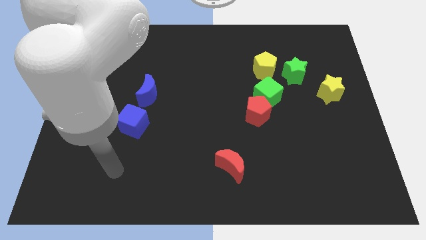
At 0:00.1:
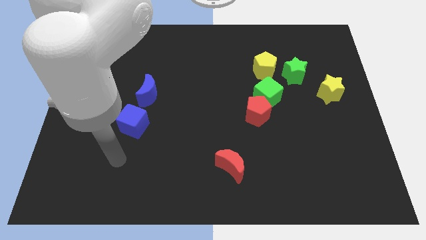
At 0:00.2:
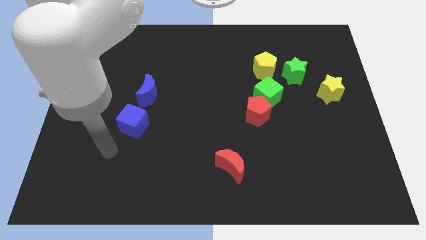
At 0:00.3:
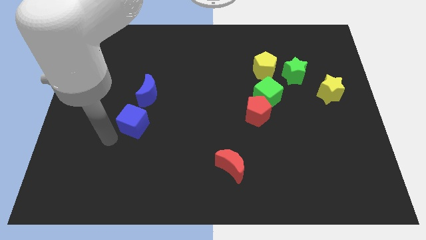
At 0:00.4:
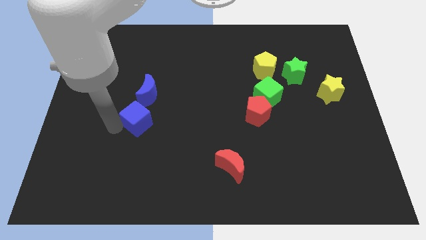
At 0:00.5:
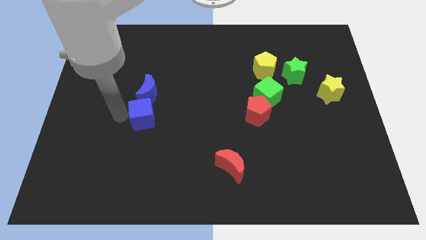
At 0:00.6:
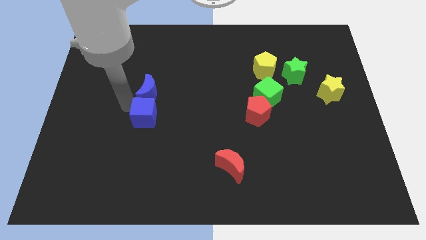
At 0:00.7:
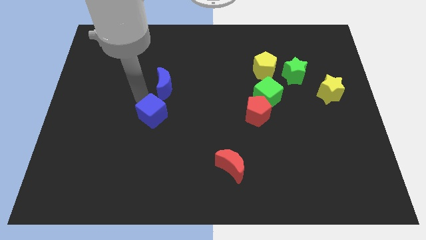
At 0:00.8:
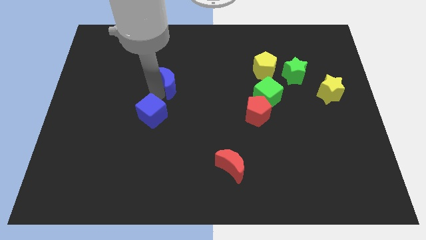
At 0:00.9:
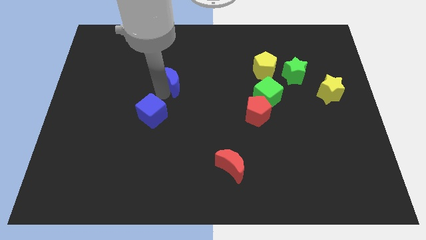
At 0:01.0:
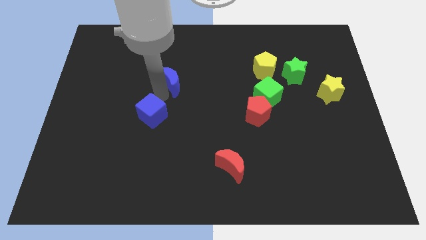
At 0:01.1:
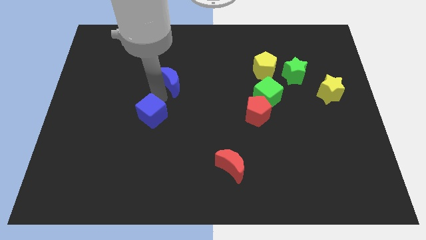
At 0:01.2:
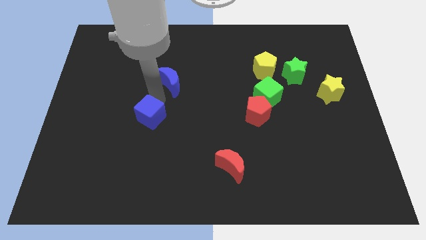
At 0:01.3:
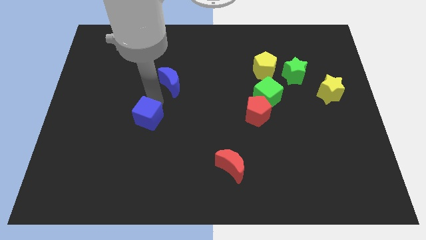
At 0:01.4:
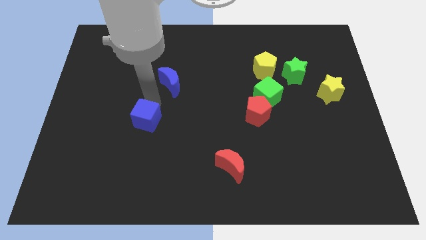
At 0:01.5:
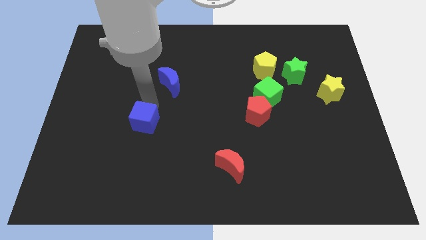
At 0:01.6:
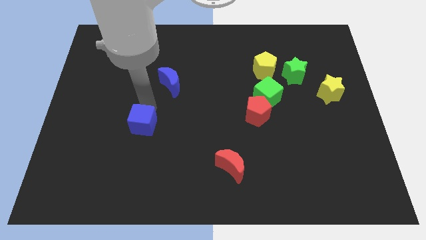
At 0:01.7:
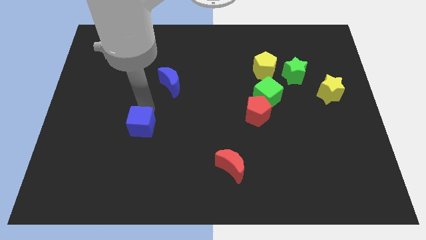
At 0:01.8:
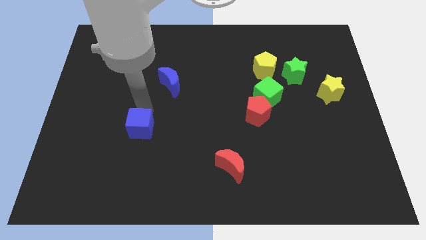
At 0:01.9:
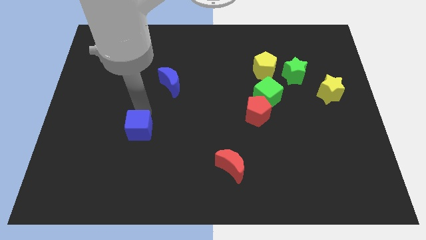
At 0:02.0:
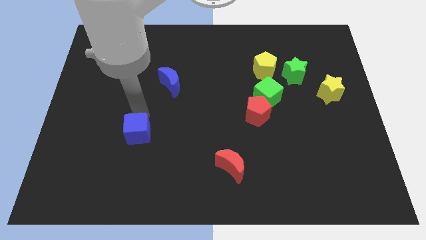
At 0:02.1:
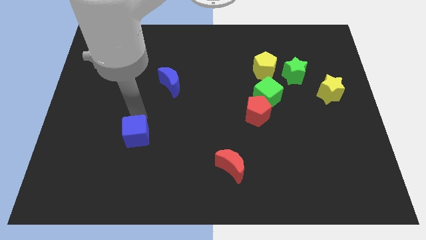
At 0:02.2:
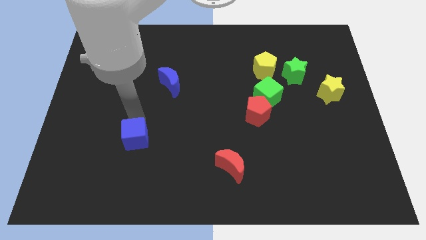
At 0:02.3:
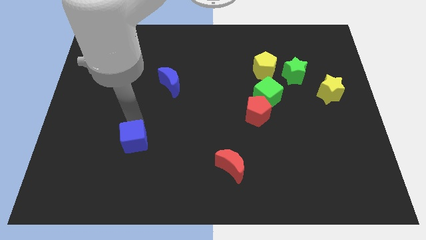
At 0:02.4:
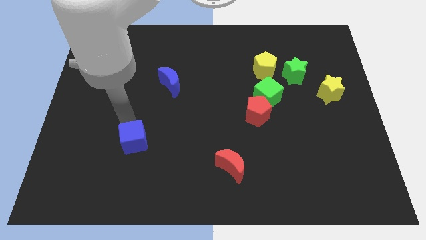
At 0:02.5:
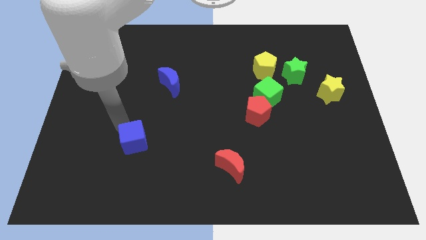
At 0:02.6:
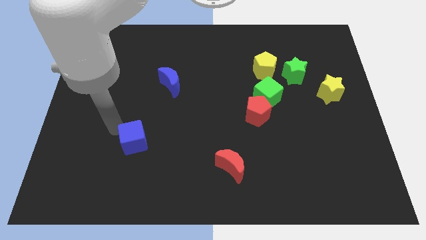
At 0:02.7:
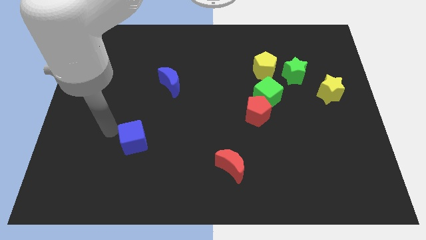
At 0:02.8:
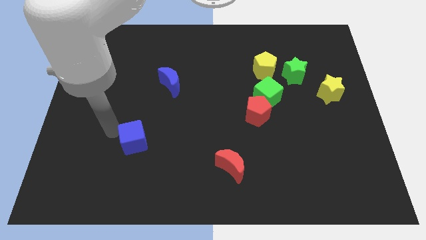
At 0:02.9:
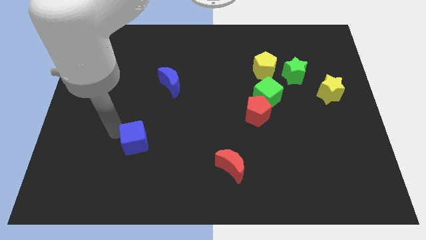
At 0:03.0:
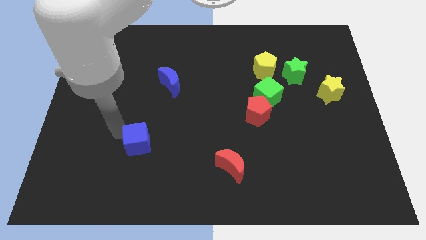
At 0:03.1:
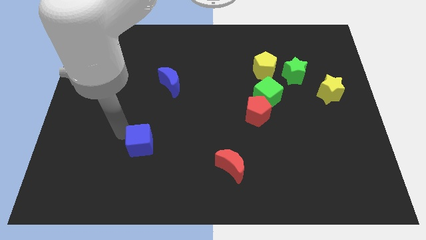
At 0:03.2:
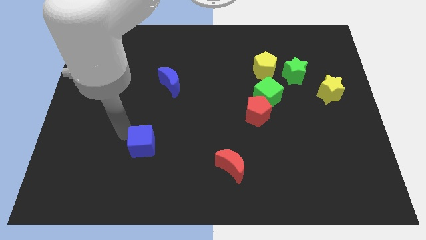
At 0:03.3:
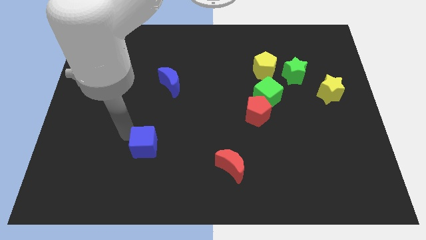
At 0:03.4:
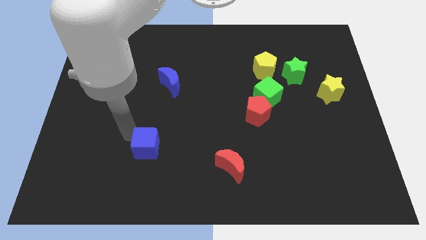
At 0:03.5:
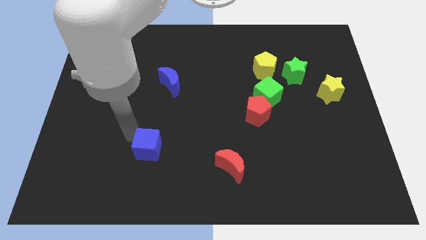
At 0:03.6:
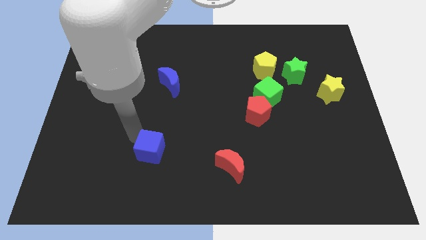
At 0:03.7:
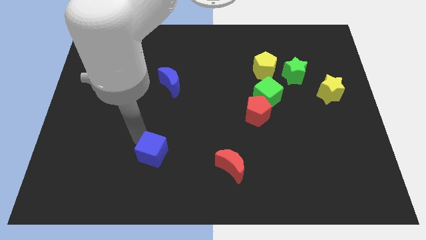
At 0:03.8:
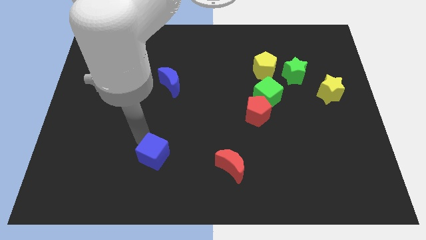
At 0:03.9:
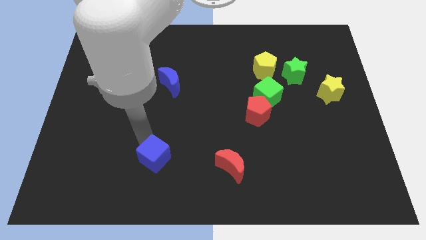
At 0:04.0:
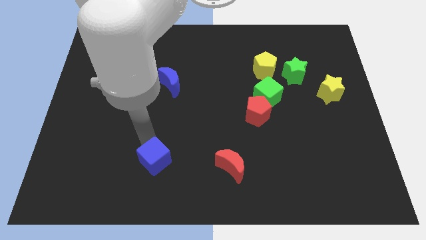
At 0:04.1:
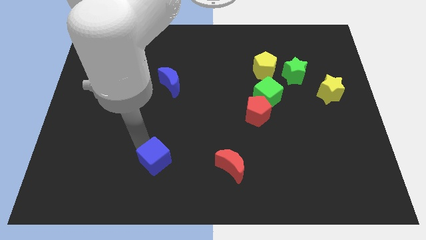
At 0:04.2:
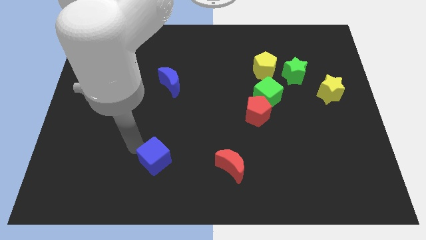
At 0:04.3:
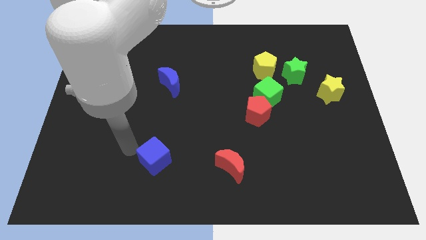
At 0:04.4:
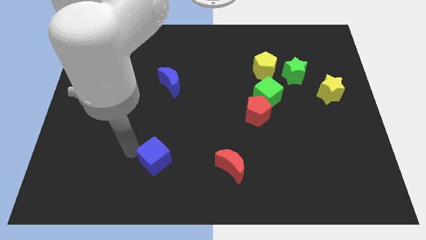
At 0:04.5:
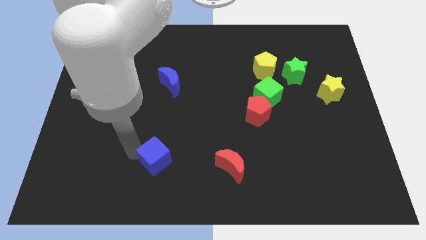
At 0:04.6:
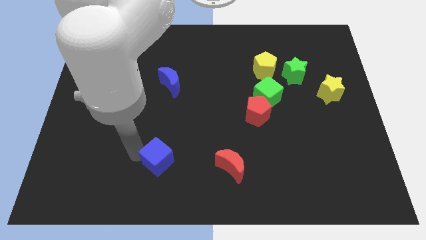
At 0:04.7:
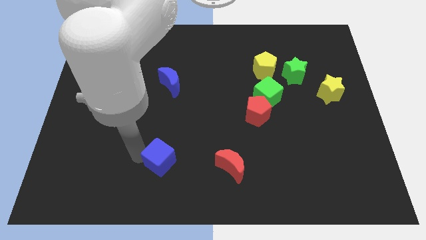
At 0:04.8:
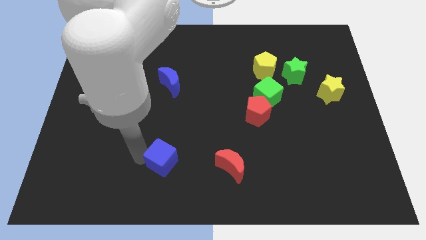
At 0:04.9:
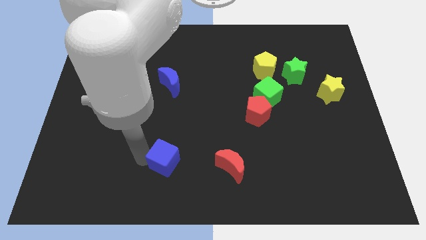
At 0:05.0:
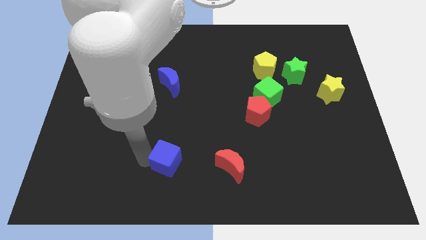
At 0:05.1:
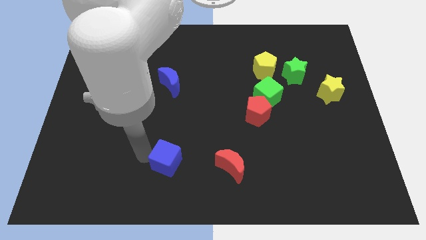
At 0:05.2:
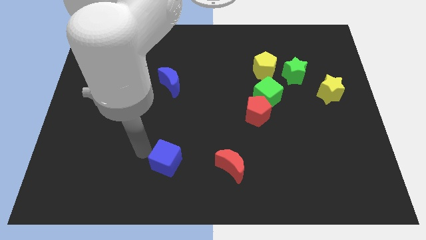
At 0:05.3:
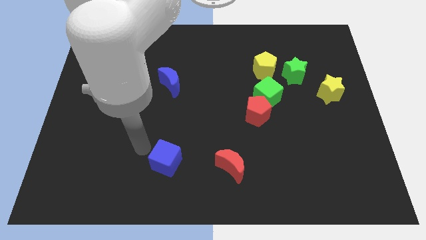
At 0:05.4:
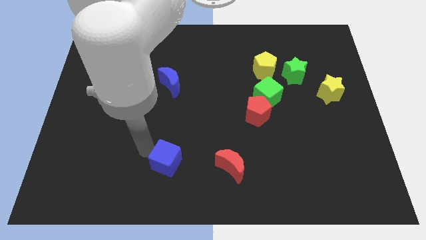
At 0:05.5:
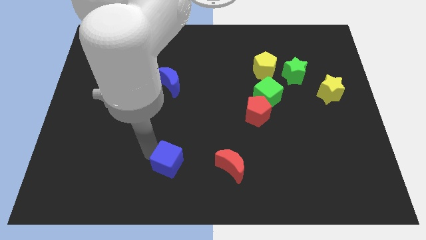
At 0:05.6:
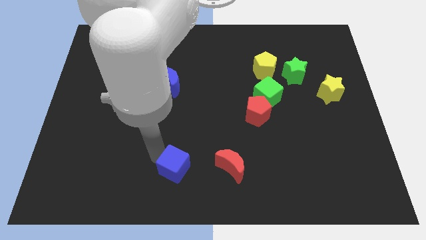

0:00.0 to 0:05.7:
push the blue cube to the bottom side

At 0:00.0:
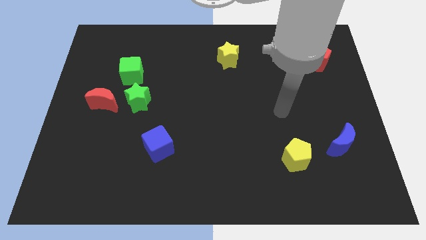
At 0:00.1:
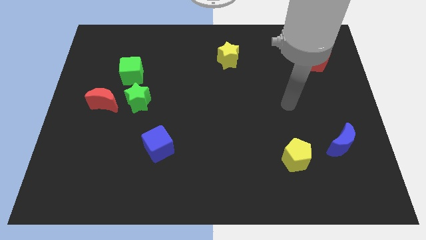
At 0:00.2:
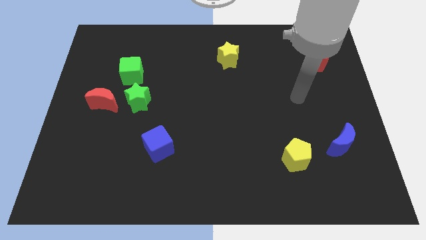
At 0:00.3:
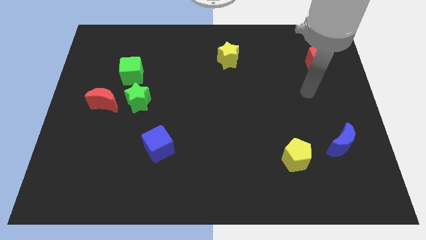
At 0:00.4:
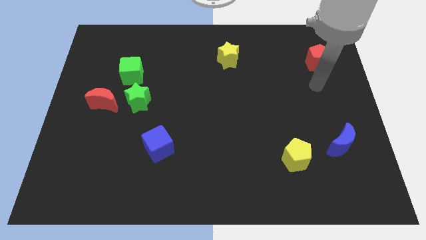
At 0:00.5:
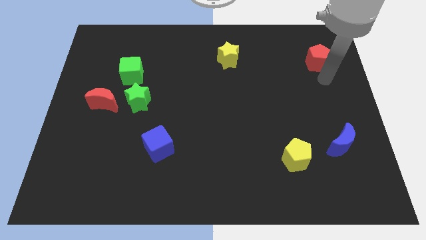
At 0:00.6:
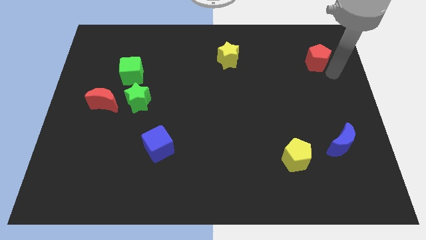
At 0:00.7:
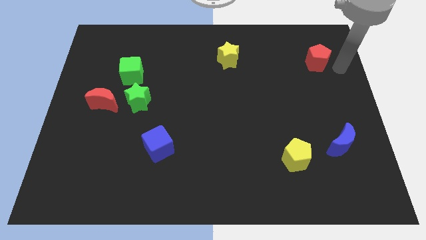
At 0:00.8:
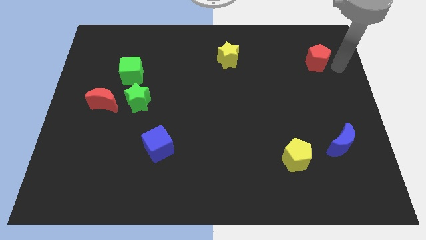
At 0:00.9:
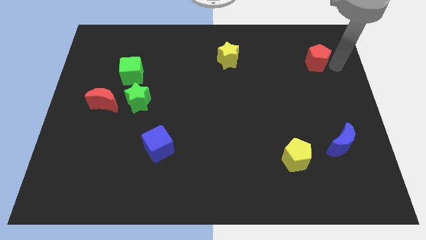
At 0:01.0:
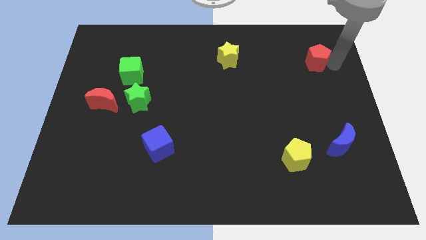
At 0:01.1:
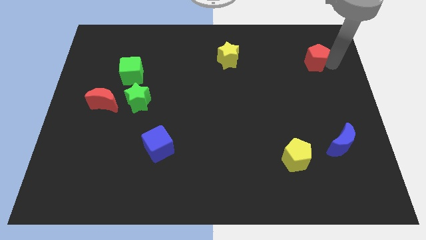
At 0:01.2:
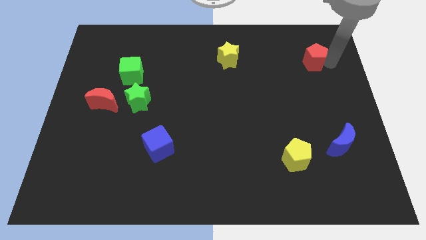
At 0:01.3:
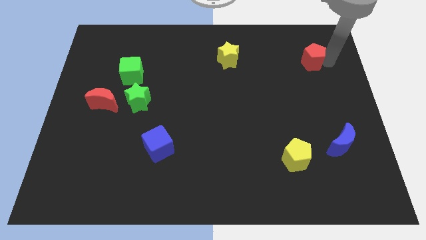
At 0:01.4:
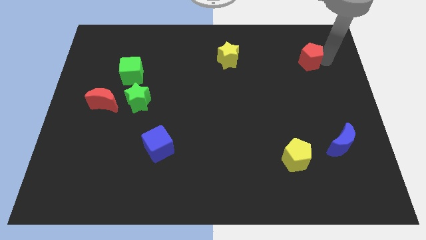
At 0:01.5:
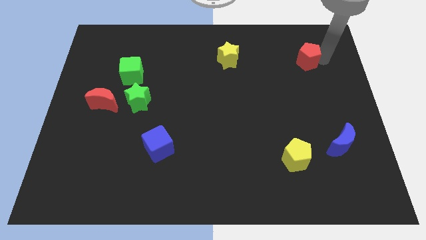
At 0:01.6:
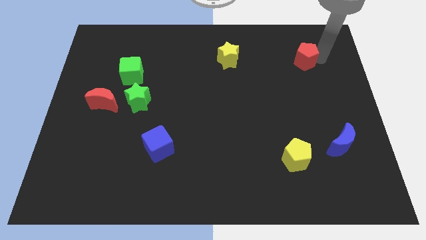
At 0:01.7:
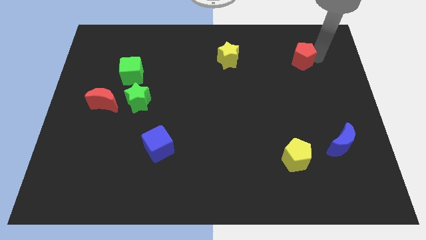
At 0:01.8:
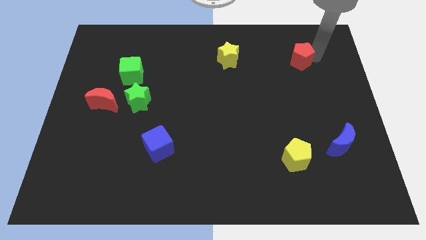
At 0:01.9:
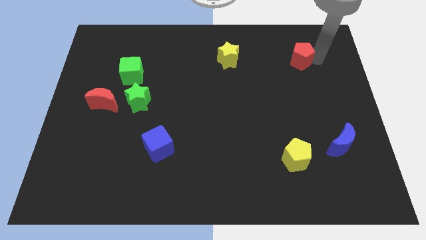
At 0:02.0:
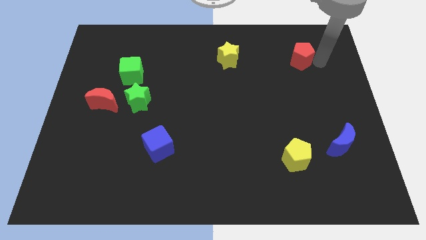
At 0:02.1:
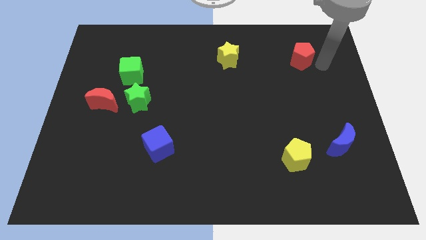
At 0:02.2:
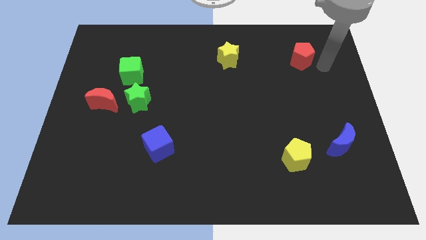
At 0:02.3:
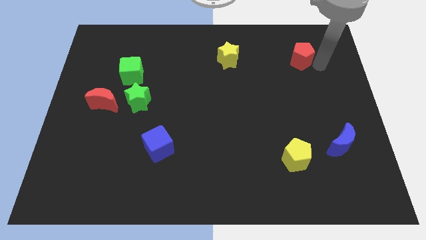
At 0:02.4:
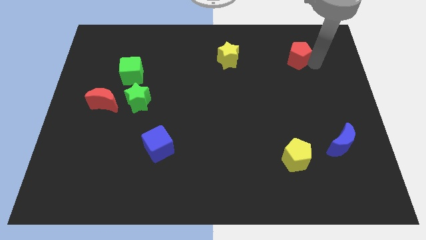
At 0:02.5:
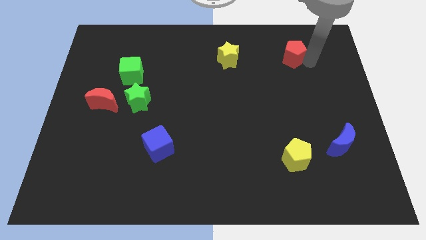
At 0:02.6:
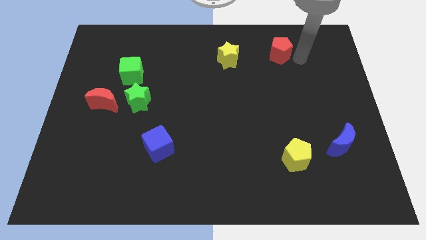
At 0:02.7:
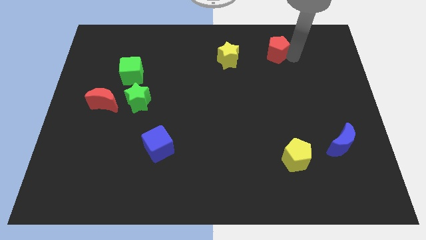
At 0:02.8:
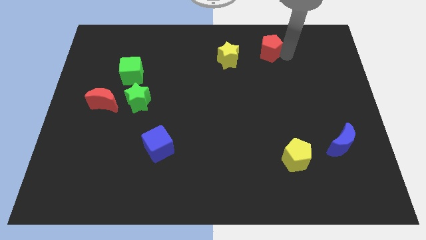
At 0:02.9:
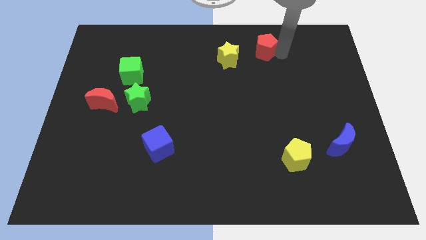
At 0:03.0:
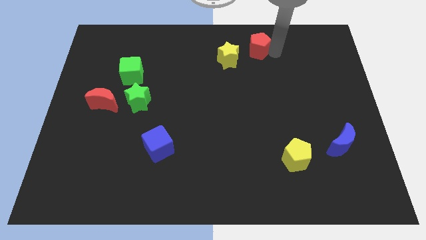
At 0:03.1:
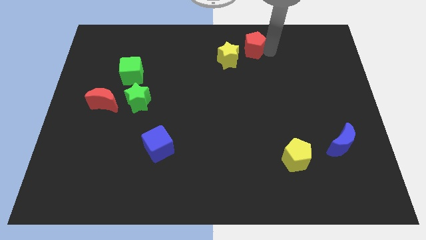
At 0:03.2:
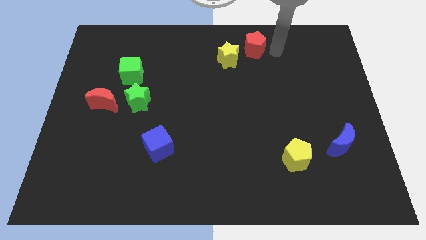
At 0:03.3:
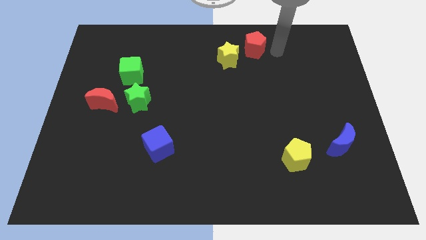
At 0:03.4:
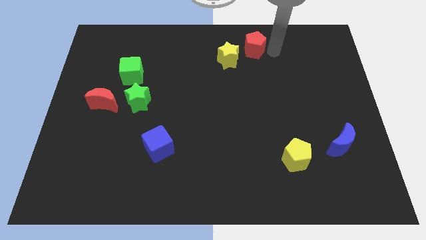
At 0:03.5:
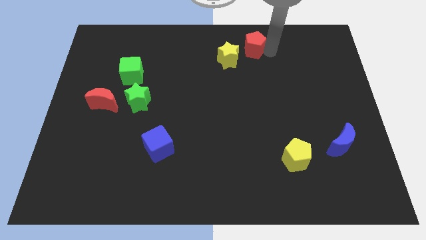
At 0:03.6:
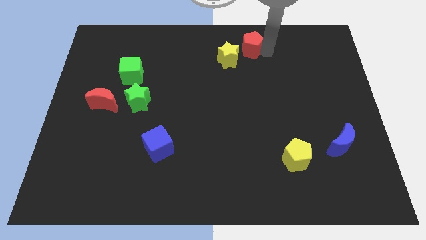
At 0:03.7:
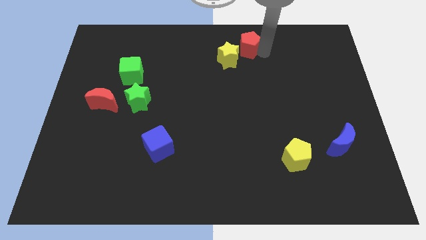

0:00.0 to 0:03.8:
push the red pentagon to the top
